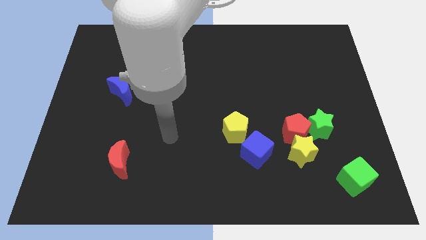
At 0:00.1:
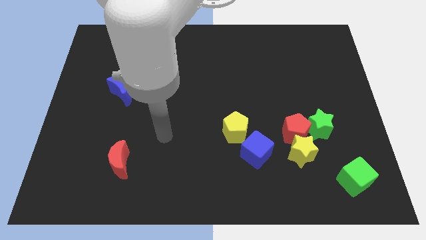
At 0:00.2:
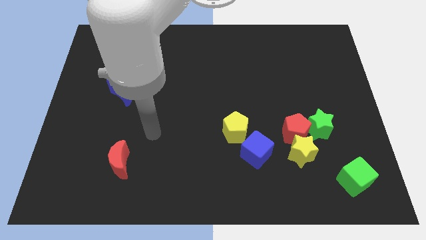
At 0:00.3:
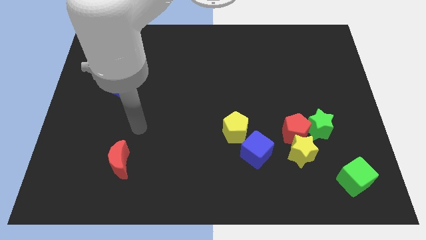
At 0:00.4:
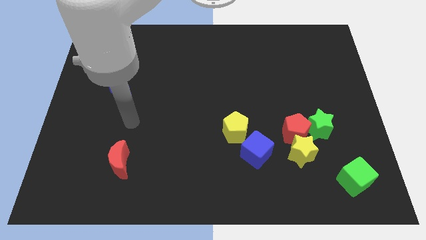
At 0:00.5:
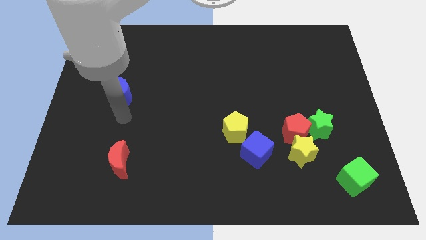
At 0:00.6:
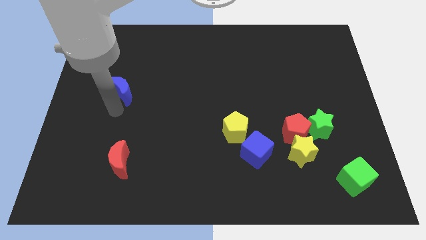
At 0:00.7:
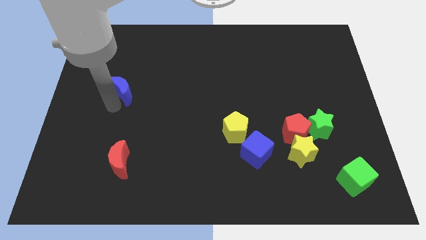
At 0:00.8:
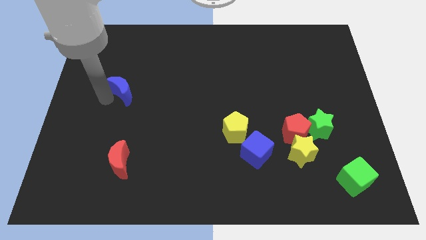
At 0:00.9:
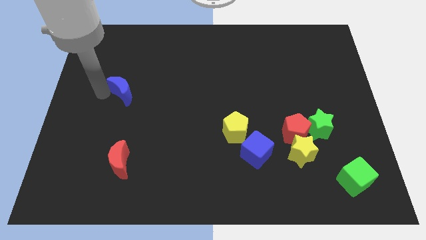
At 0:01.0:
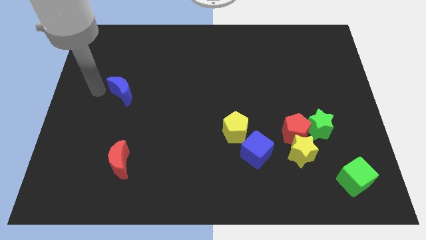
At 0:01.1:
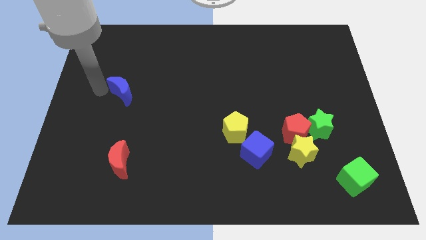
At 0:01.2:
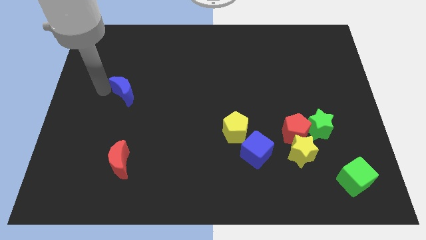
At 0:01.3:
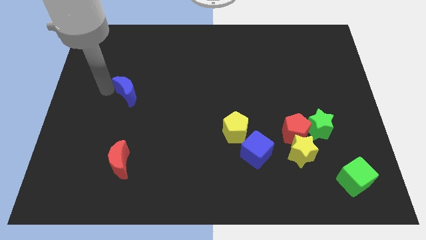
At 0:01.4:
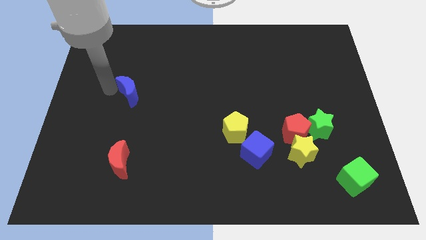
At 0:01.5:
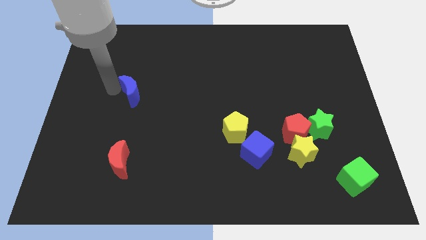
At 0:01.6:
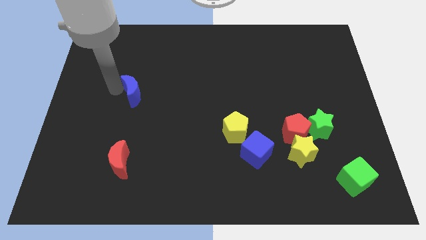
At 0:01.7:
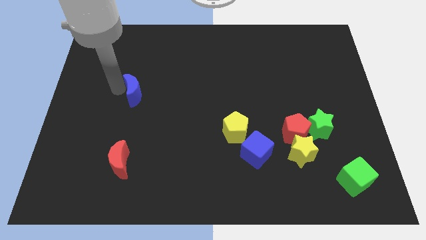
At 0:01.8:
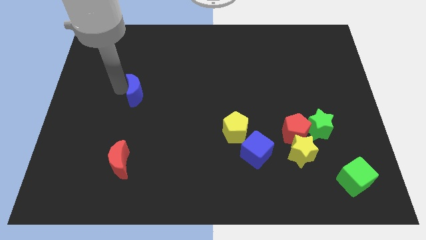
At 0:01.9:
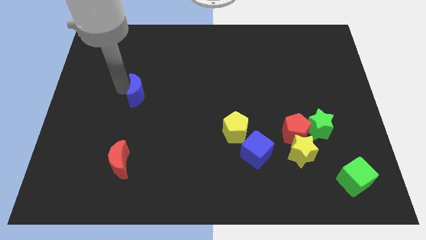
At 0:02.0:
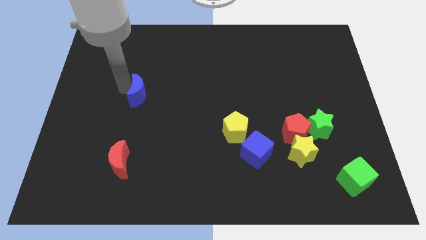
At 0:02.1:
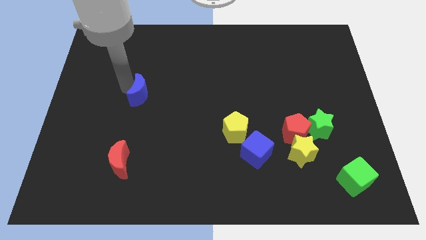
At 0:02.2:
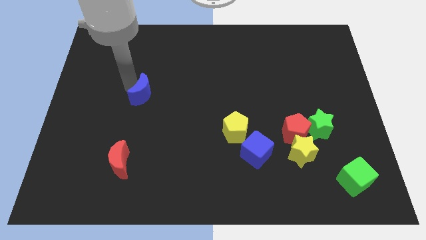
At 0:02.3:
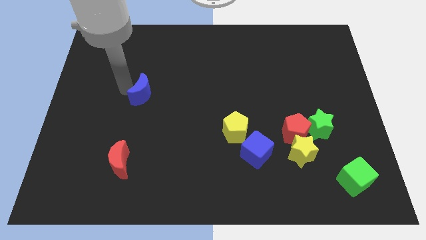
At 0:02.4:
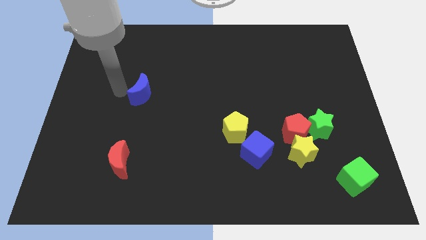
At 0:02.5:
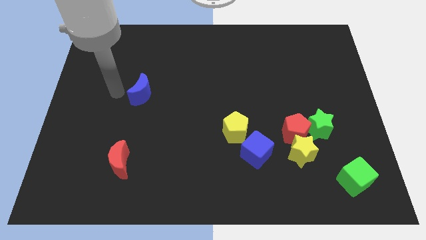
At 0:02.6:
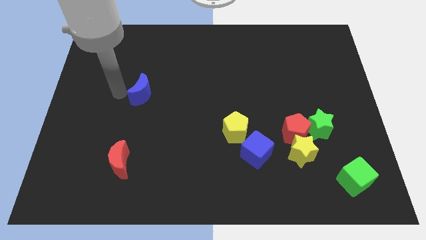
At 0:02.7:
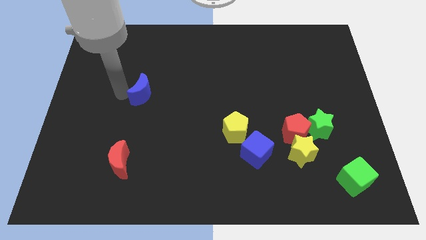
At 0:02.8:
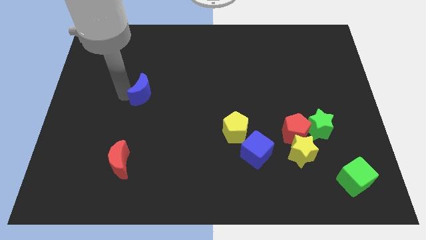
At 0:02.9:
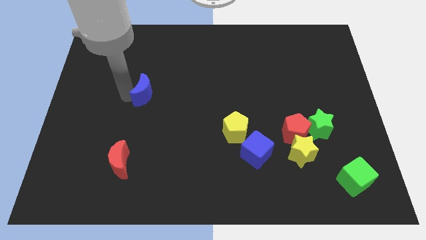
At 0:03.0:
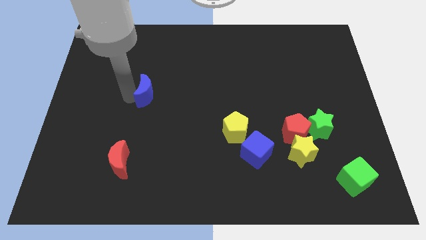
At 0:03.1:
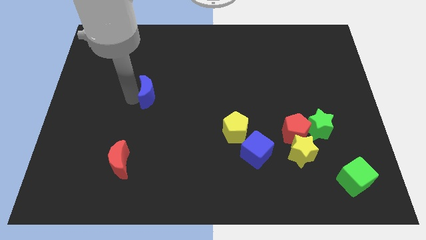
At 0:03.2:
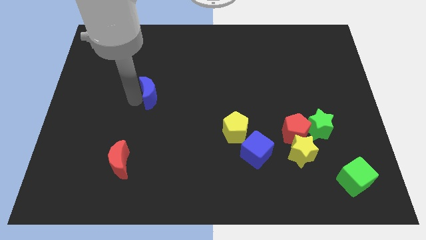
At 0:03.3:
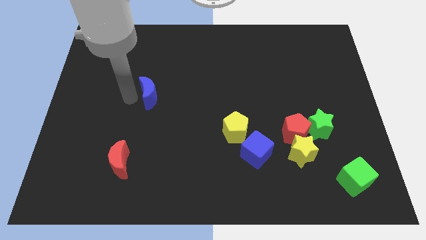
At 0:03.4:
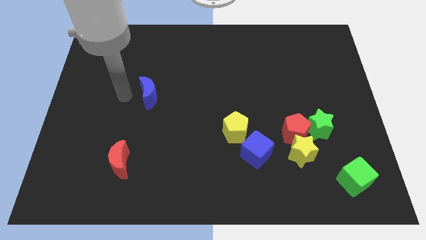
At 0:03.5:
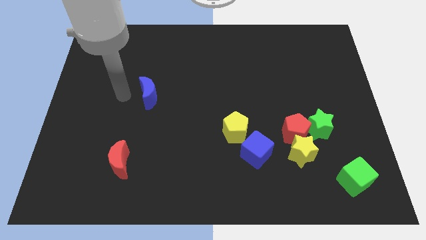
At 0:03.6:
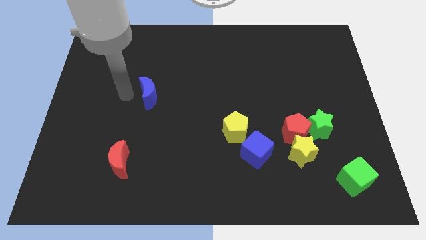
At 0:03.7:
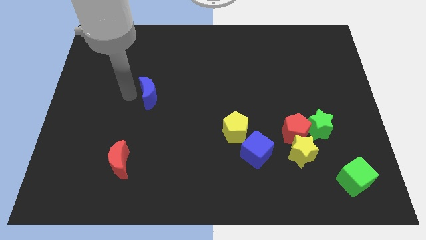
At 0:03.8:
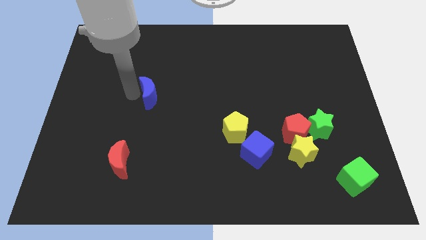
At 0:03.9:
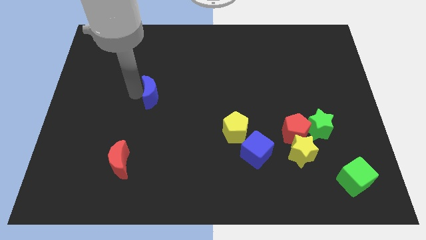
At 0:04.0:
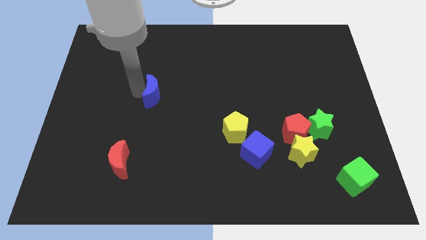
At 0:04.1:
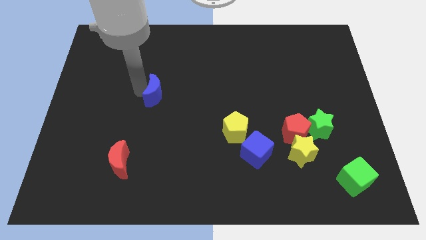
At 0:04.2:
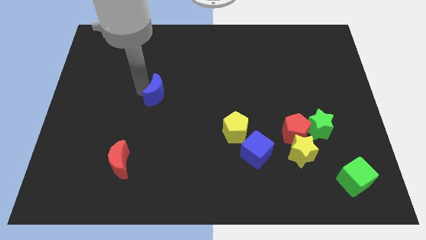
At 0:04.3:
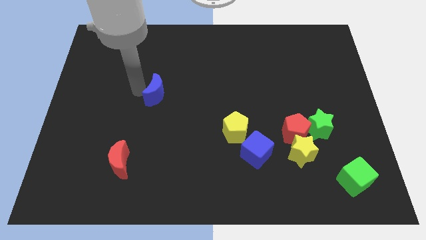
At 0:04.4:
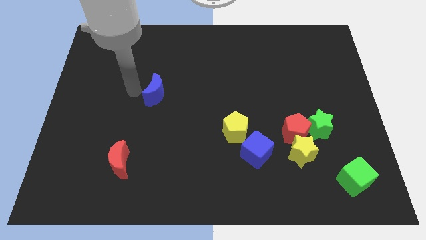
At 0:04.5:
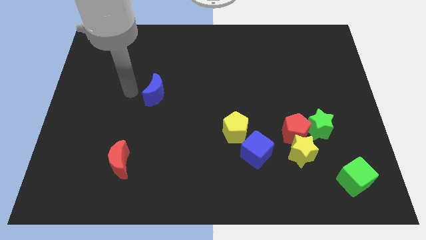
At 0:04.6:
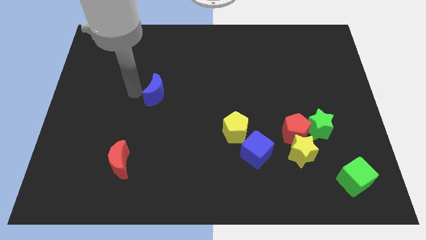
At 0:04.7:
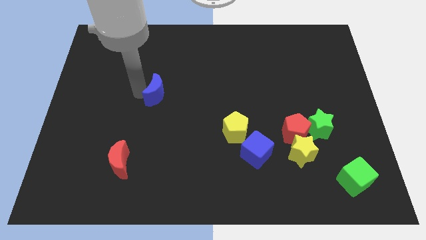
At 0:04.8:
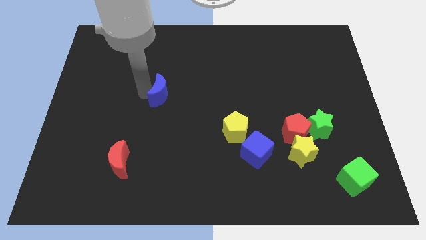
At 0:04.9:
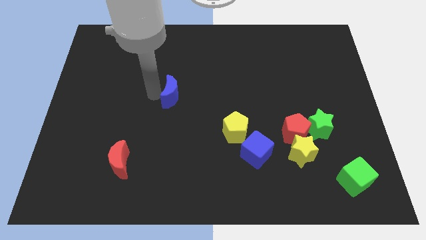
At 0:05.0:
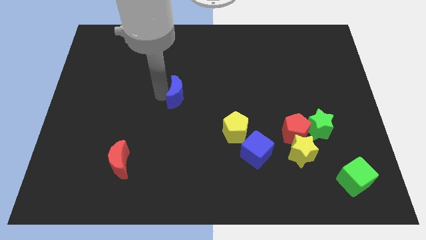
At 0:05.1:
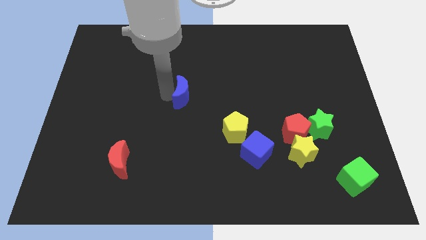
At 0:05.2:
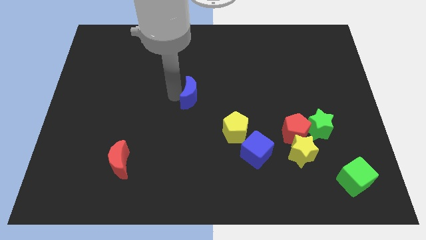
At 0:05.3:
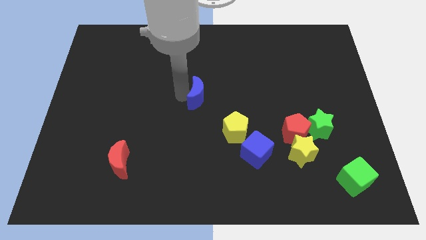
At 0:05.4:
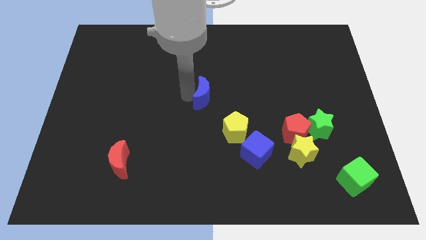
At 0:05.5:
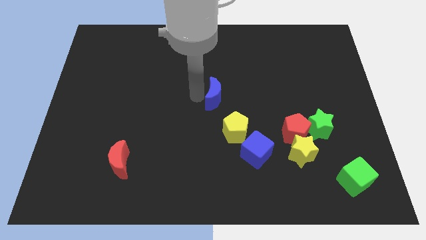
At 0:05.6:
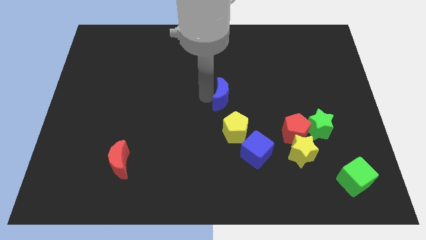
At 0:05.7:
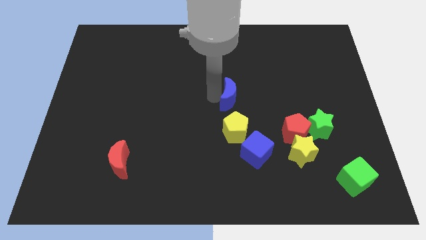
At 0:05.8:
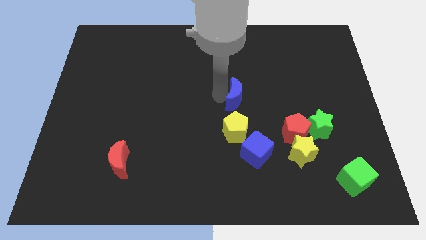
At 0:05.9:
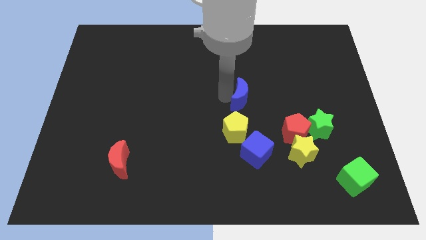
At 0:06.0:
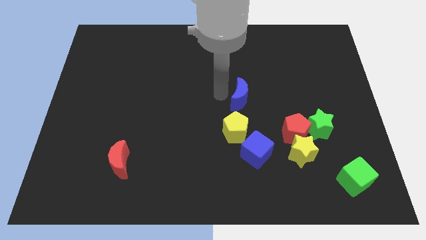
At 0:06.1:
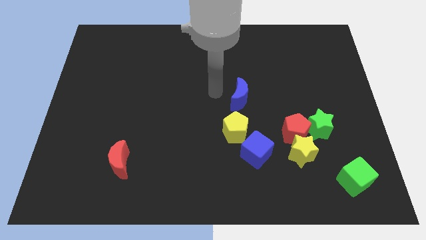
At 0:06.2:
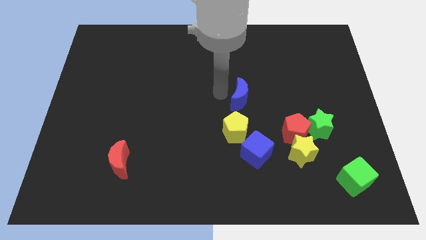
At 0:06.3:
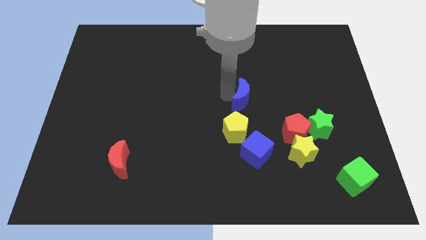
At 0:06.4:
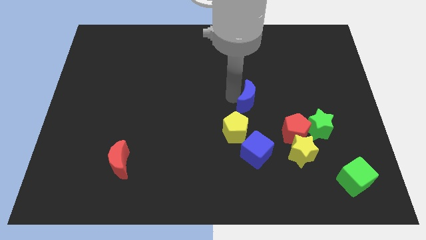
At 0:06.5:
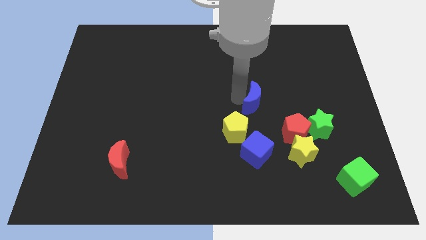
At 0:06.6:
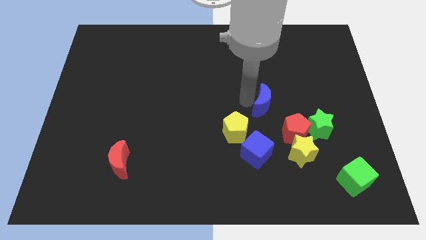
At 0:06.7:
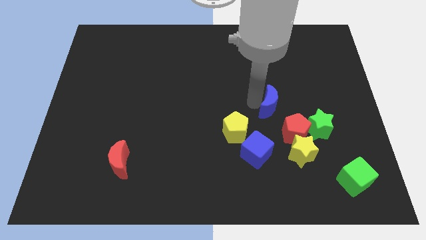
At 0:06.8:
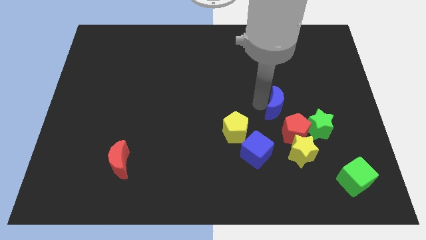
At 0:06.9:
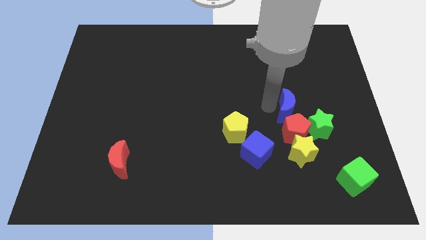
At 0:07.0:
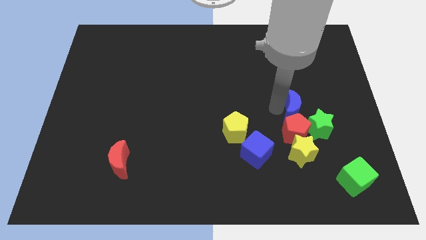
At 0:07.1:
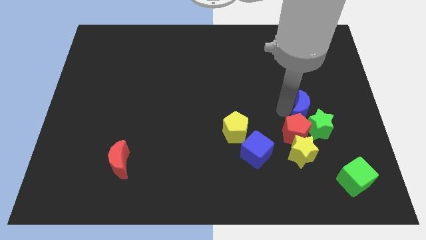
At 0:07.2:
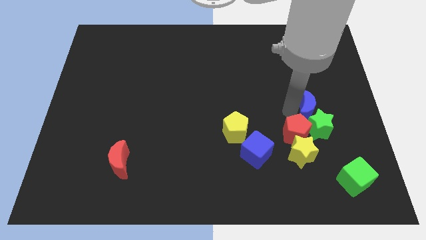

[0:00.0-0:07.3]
push the blue moon to the top right side of the green star
